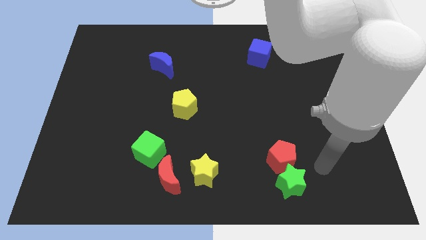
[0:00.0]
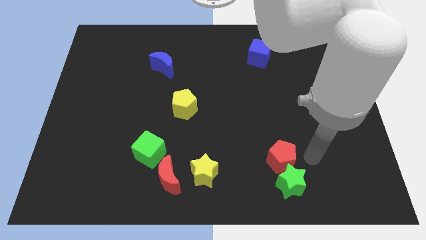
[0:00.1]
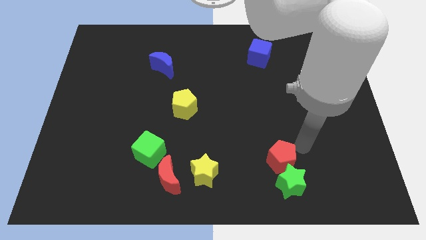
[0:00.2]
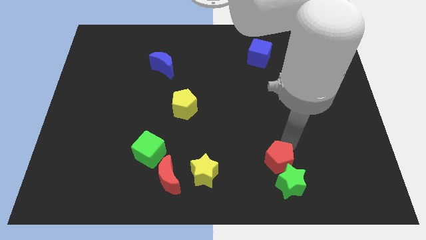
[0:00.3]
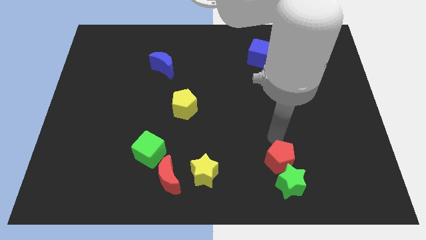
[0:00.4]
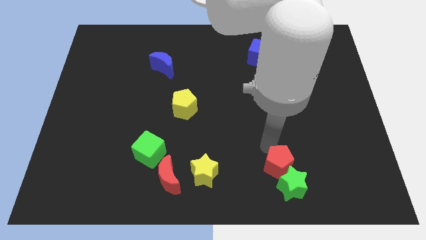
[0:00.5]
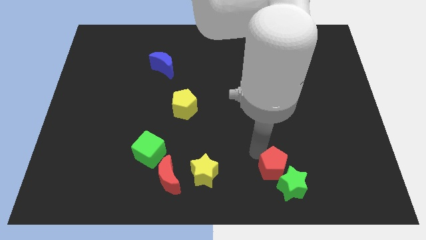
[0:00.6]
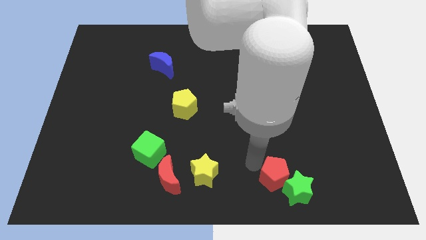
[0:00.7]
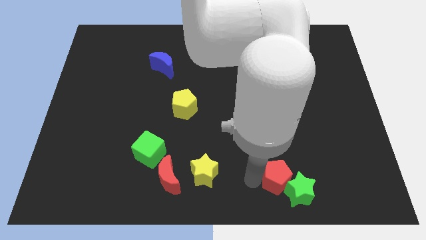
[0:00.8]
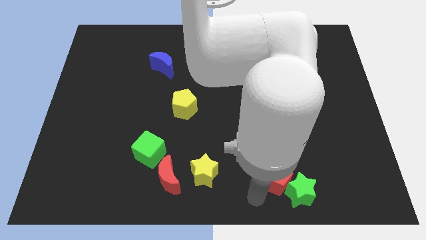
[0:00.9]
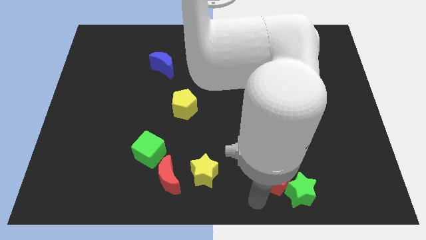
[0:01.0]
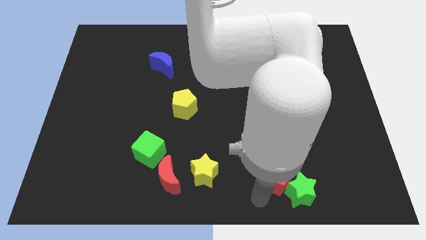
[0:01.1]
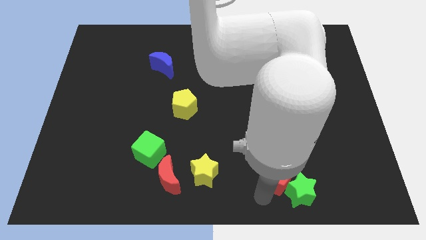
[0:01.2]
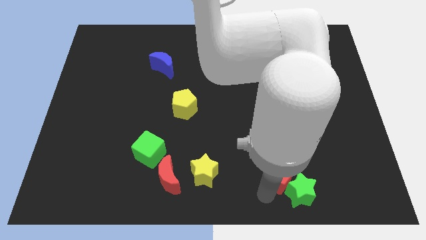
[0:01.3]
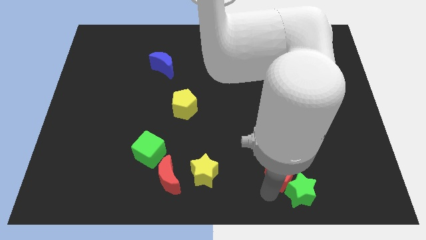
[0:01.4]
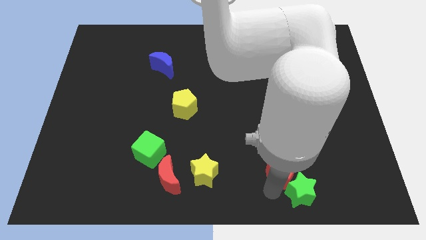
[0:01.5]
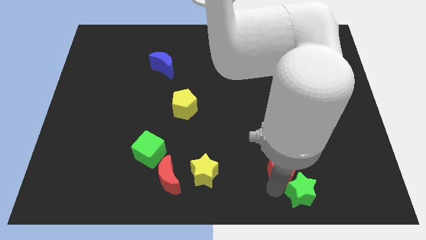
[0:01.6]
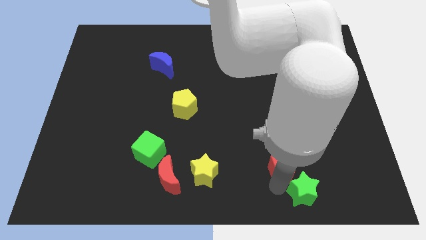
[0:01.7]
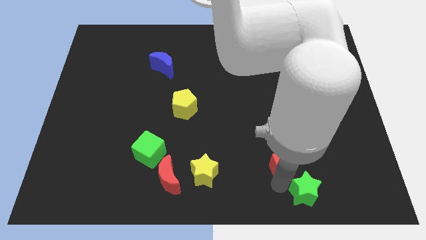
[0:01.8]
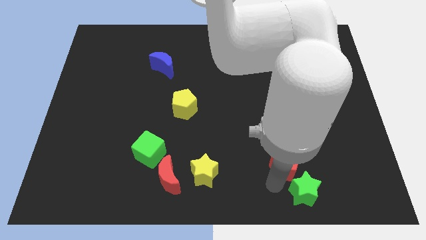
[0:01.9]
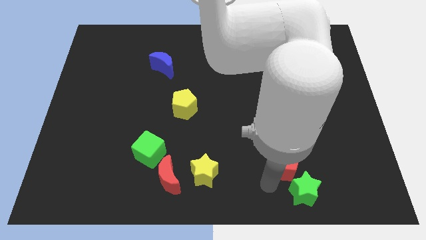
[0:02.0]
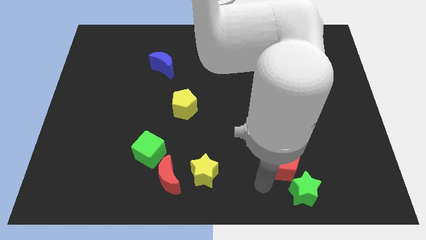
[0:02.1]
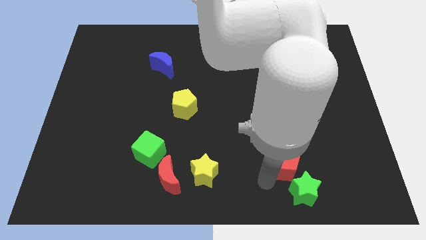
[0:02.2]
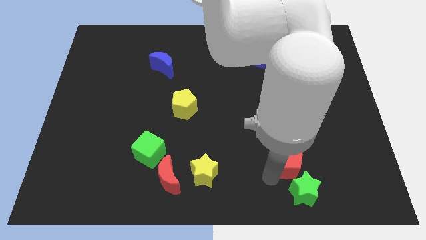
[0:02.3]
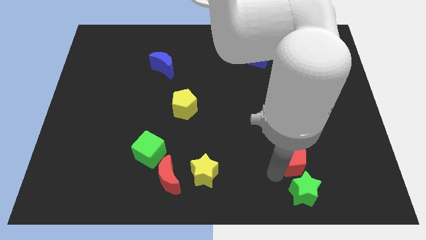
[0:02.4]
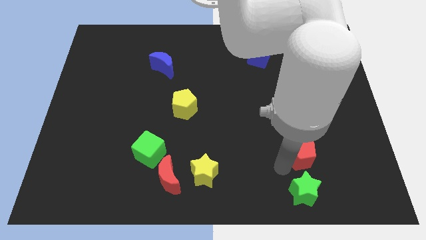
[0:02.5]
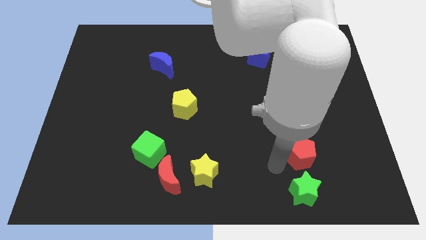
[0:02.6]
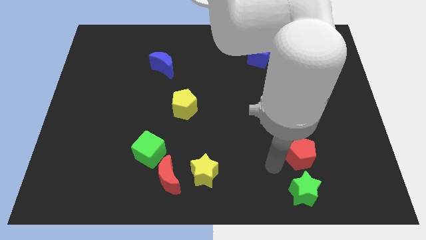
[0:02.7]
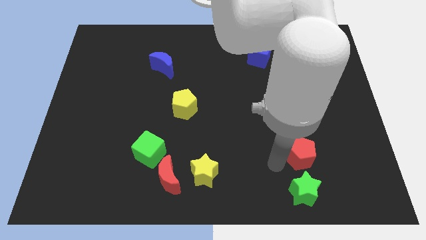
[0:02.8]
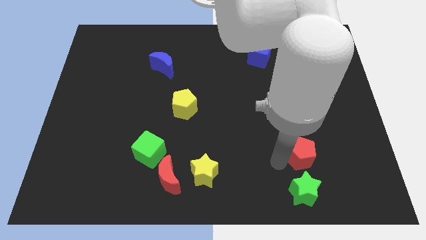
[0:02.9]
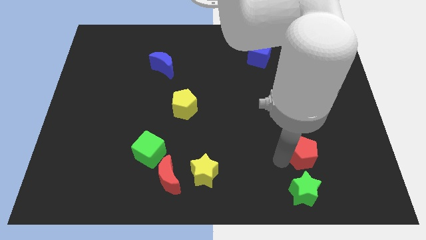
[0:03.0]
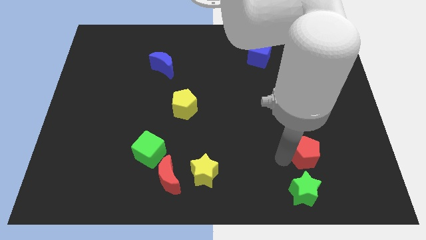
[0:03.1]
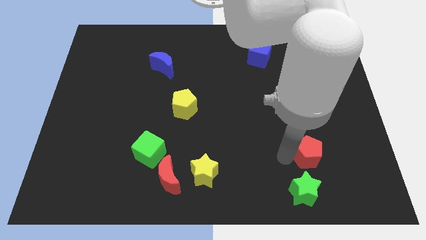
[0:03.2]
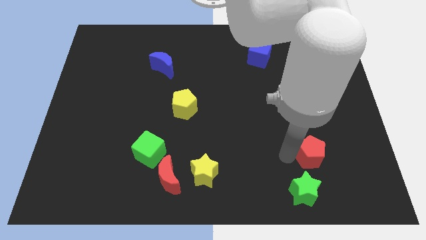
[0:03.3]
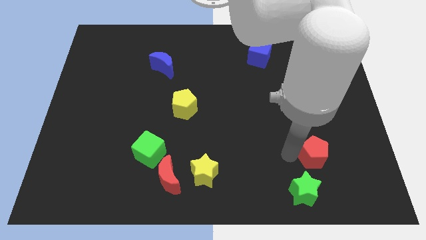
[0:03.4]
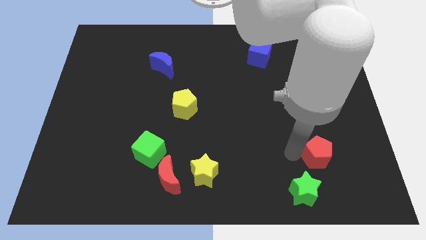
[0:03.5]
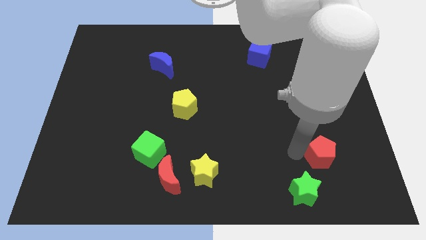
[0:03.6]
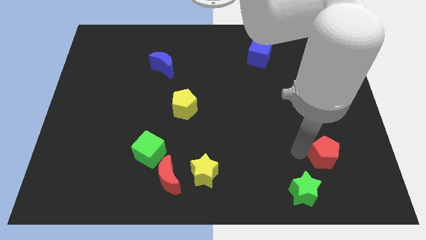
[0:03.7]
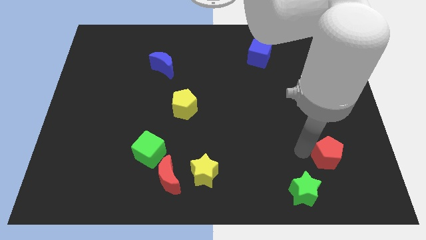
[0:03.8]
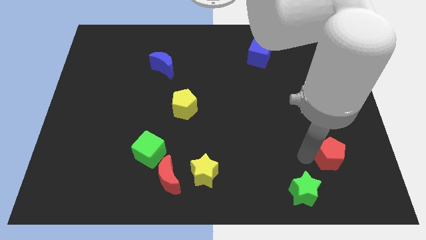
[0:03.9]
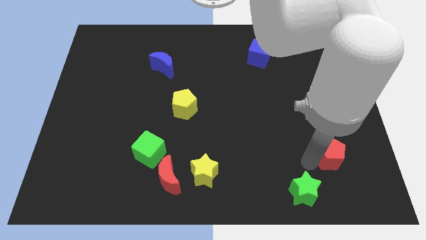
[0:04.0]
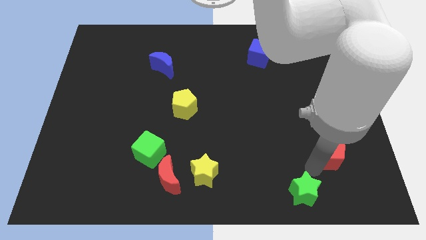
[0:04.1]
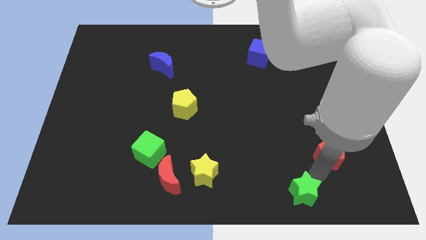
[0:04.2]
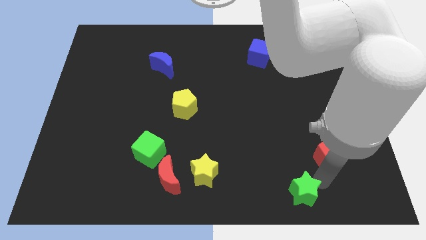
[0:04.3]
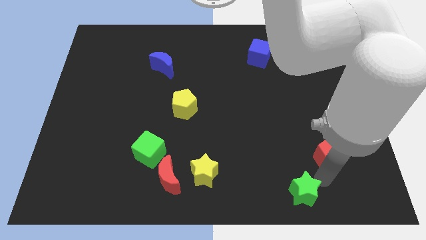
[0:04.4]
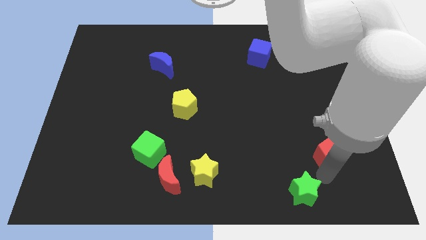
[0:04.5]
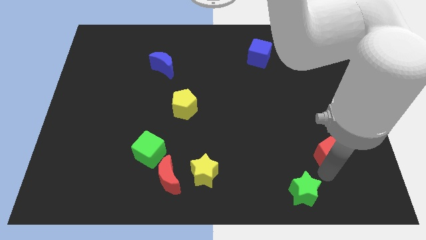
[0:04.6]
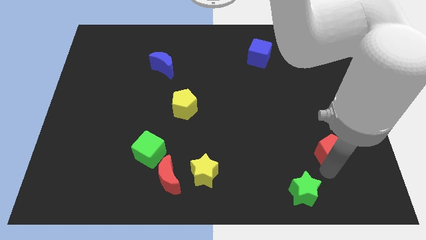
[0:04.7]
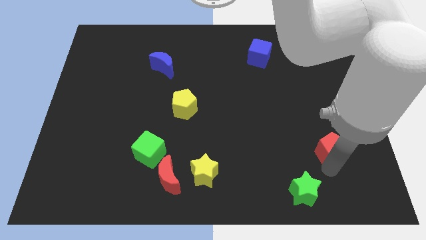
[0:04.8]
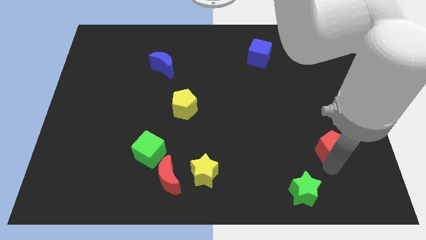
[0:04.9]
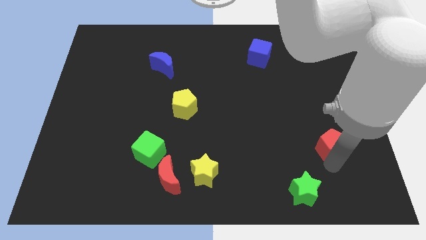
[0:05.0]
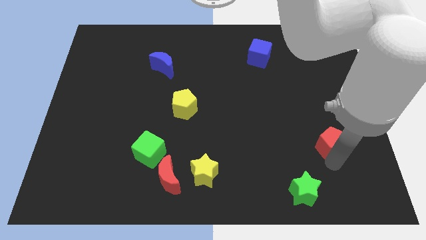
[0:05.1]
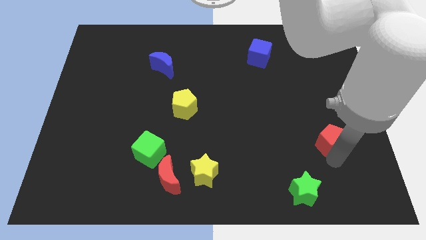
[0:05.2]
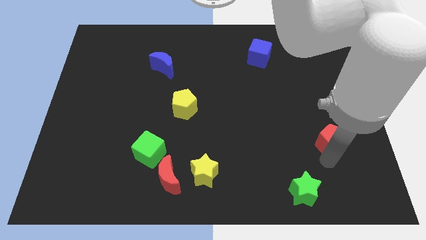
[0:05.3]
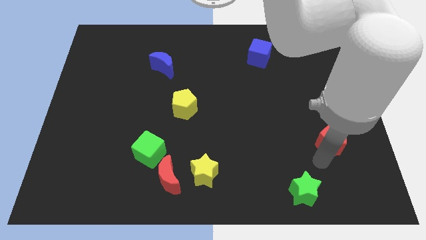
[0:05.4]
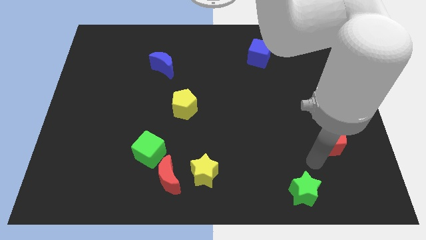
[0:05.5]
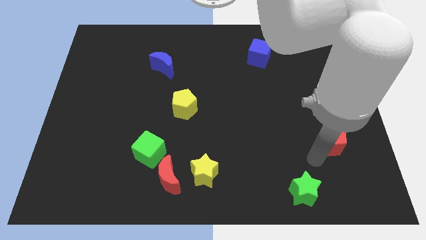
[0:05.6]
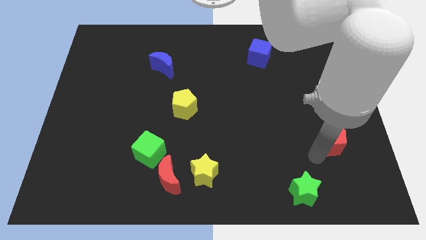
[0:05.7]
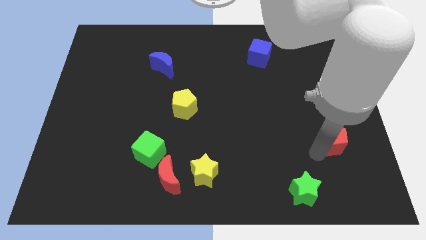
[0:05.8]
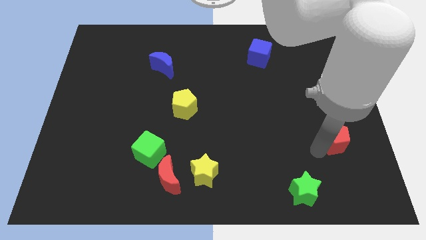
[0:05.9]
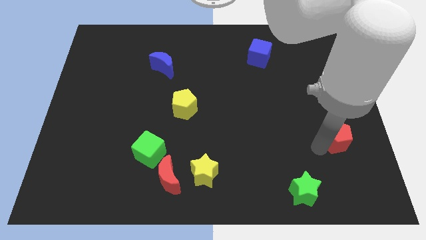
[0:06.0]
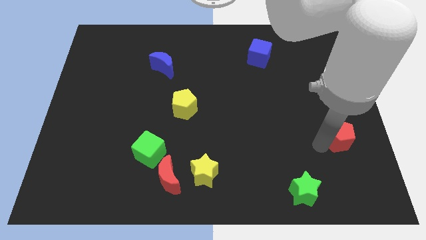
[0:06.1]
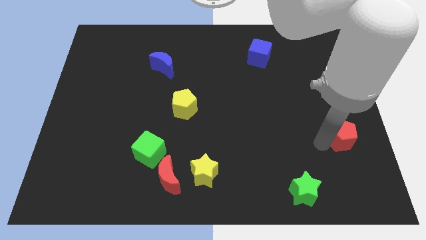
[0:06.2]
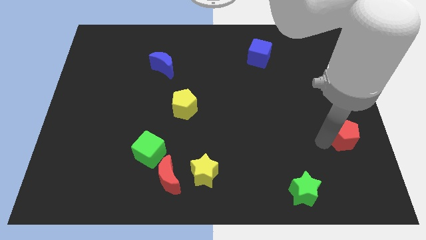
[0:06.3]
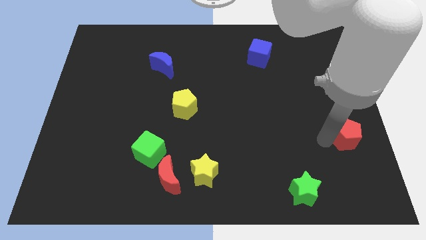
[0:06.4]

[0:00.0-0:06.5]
put the red pentagon to the right side of the board
